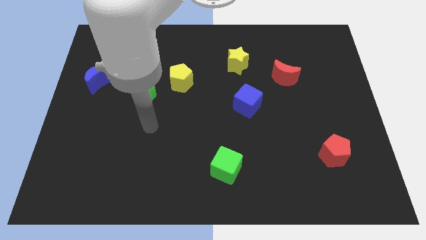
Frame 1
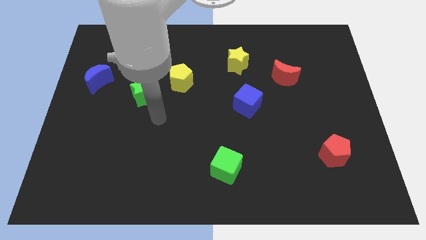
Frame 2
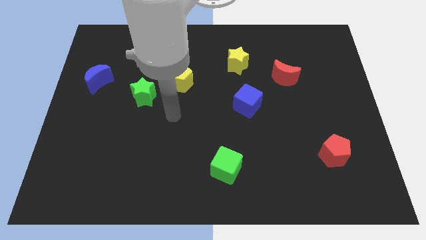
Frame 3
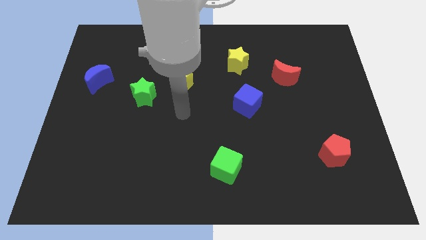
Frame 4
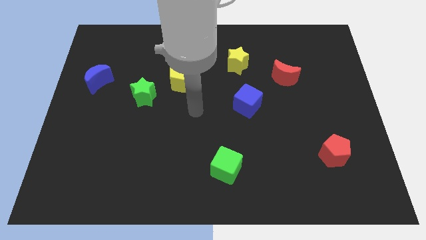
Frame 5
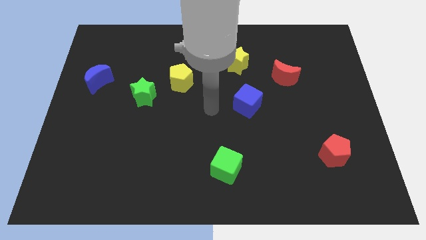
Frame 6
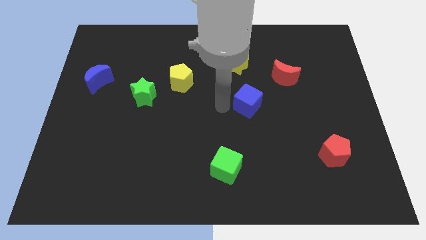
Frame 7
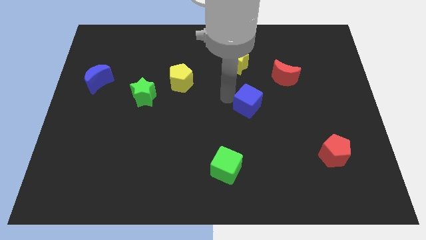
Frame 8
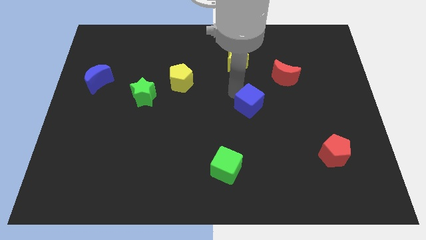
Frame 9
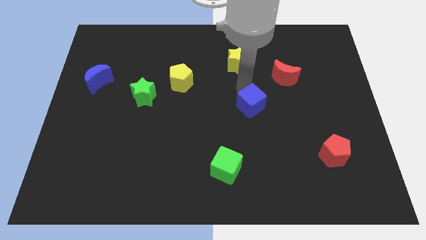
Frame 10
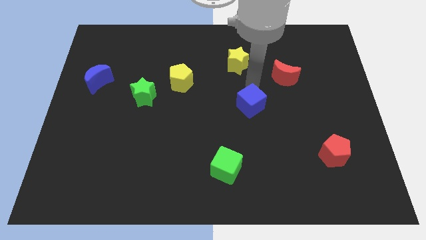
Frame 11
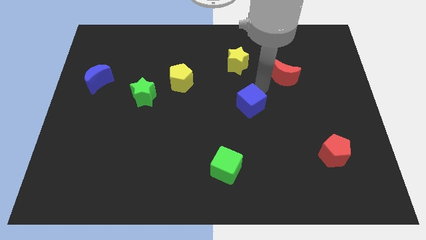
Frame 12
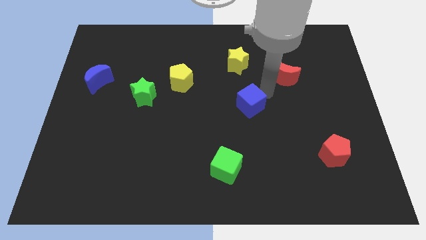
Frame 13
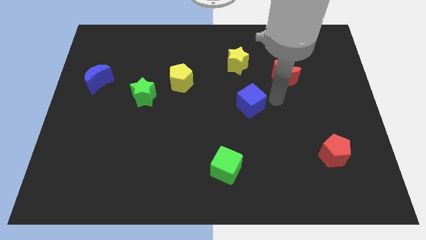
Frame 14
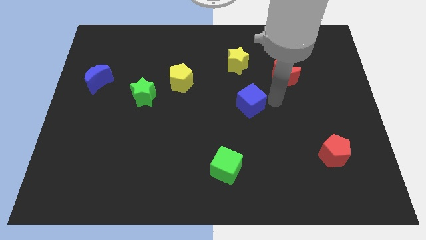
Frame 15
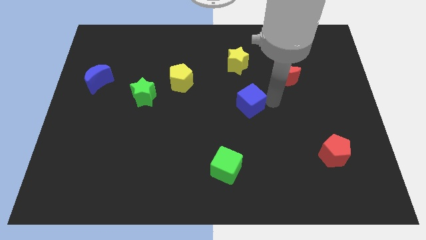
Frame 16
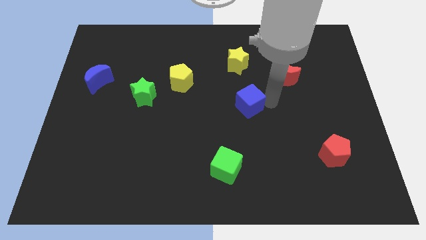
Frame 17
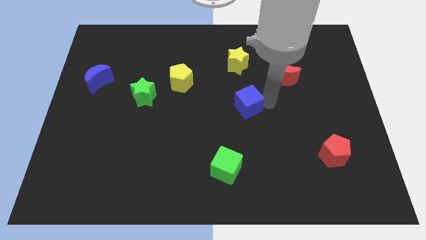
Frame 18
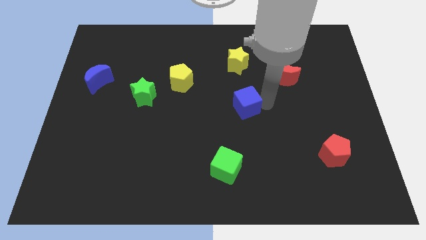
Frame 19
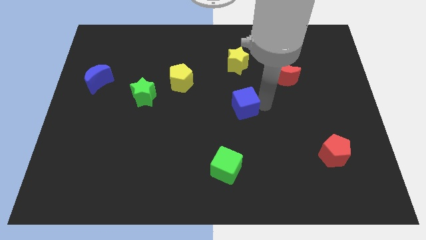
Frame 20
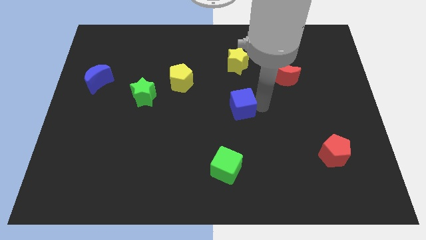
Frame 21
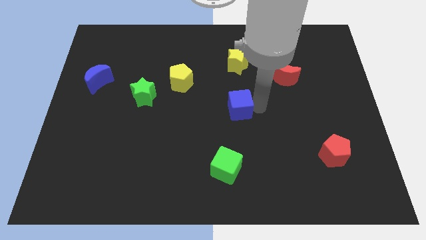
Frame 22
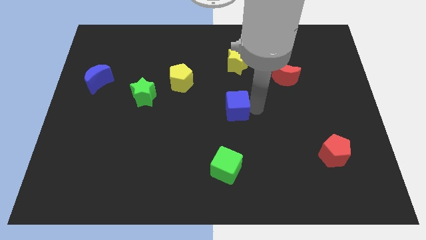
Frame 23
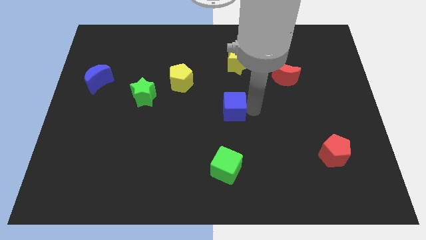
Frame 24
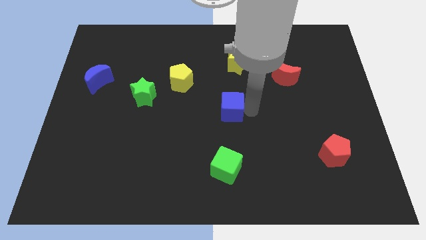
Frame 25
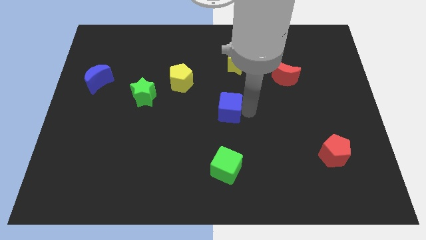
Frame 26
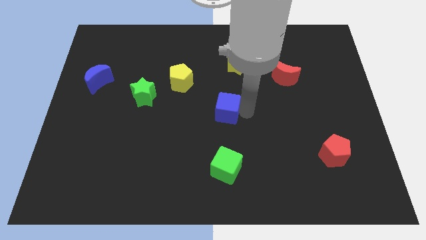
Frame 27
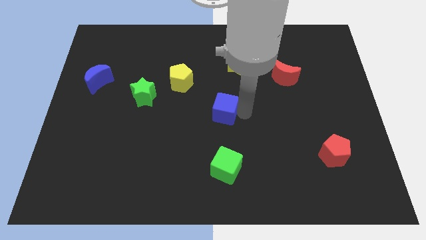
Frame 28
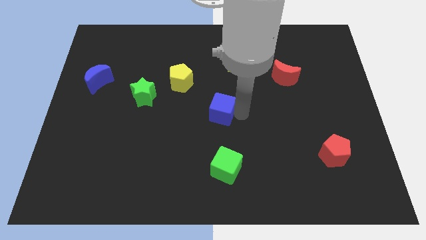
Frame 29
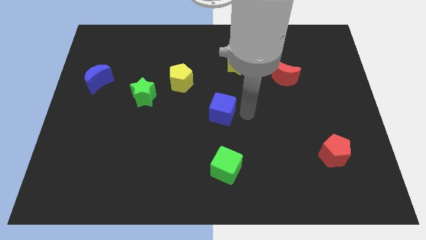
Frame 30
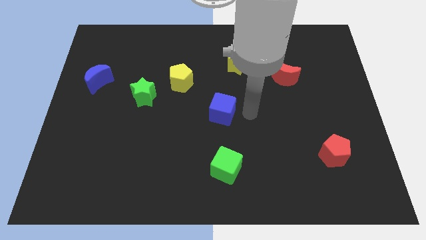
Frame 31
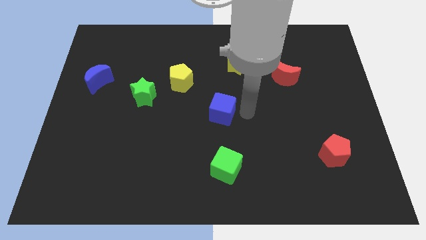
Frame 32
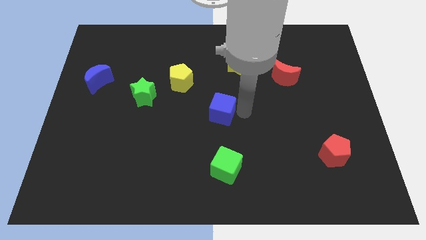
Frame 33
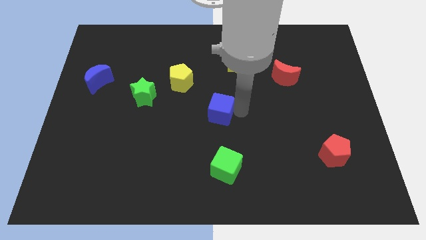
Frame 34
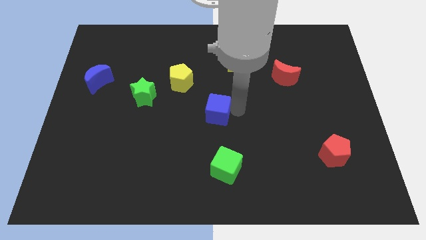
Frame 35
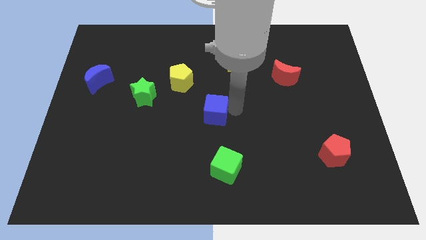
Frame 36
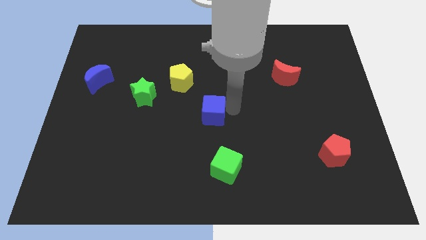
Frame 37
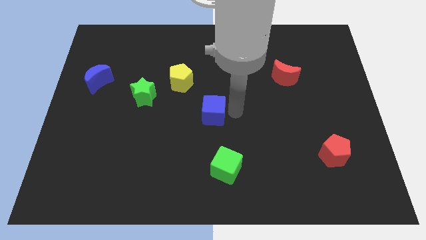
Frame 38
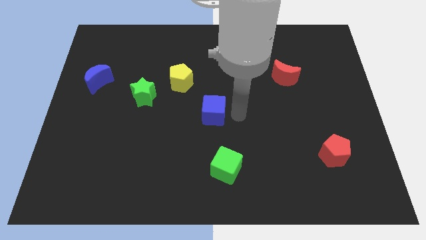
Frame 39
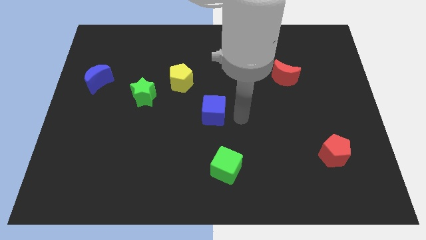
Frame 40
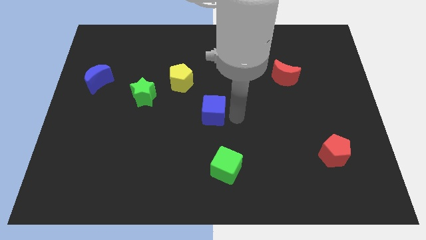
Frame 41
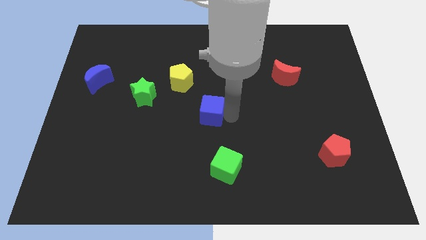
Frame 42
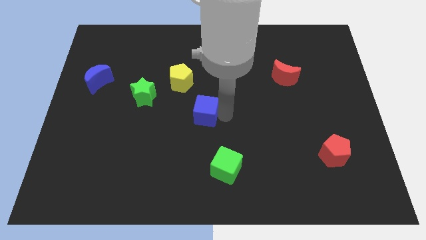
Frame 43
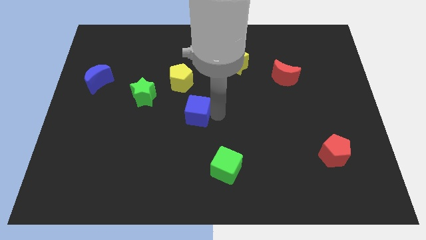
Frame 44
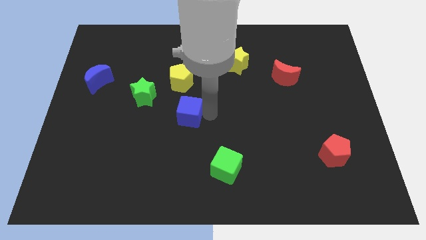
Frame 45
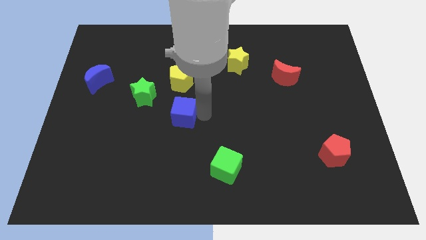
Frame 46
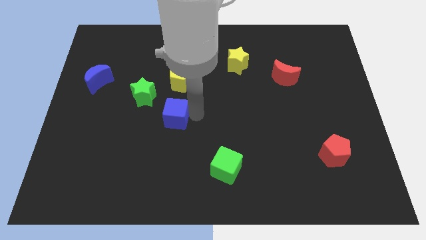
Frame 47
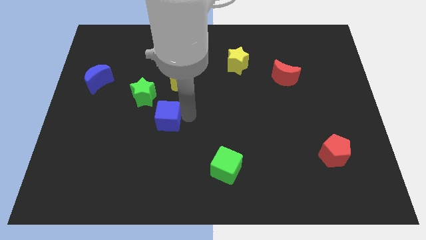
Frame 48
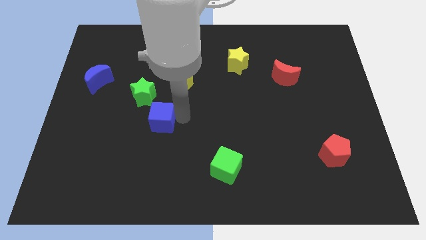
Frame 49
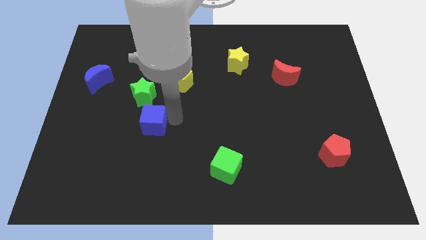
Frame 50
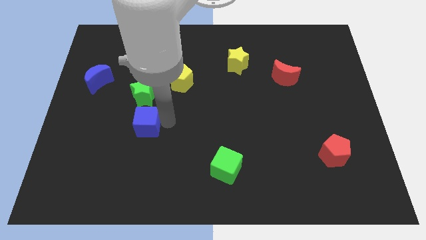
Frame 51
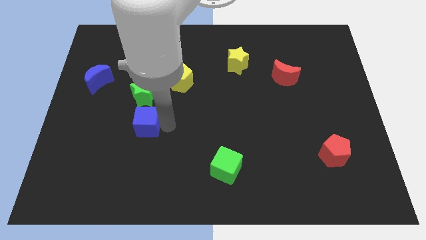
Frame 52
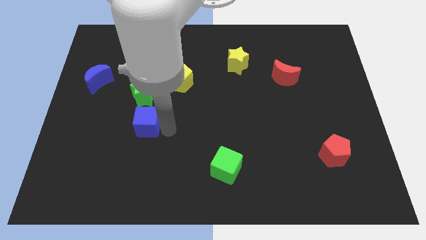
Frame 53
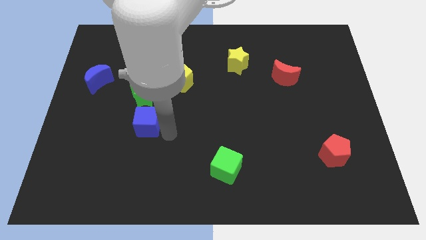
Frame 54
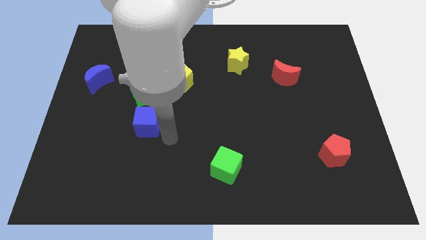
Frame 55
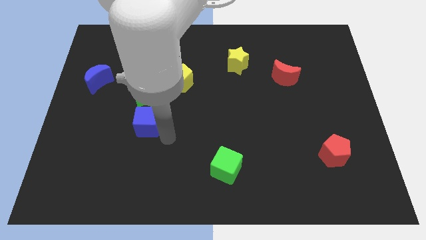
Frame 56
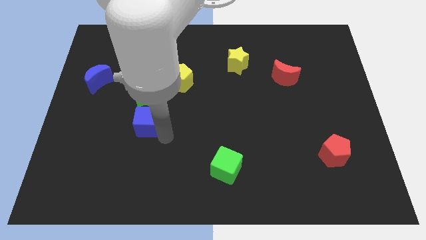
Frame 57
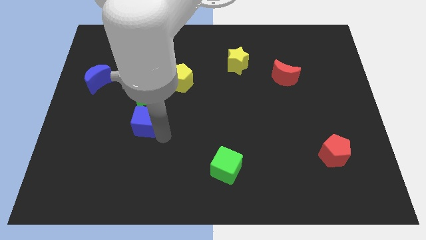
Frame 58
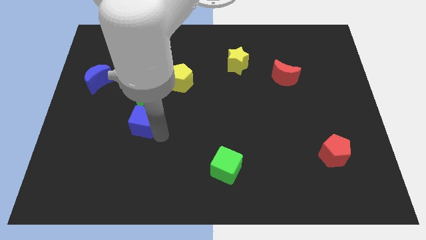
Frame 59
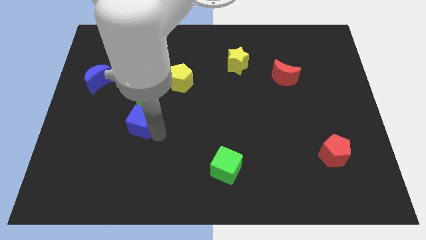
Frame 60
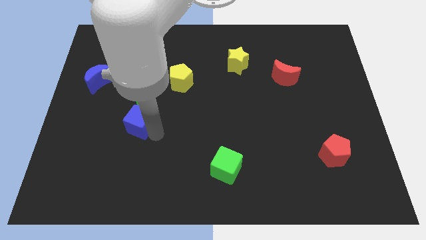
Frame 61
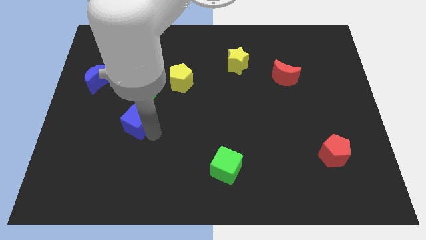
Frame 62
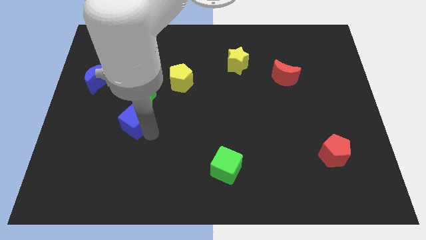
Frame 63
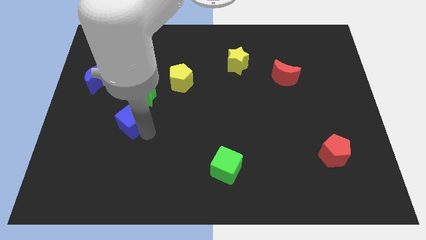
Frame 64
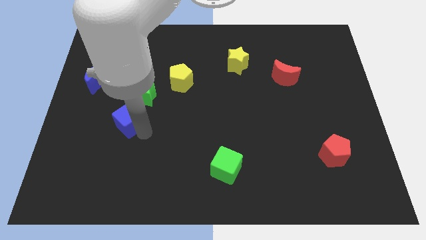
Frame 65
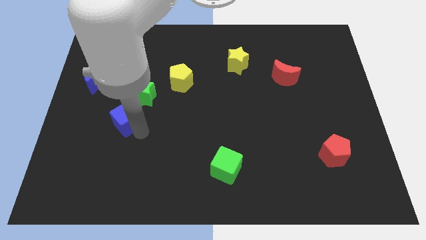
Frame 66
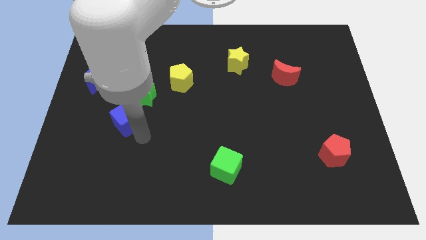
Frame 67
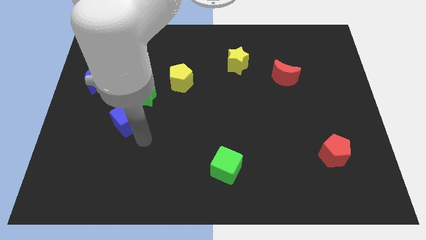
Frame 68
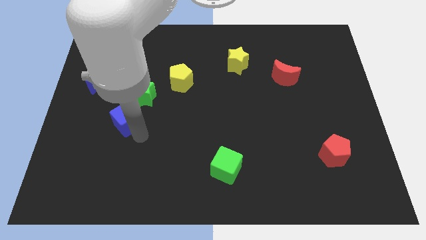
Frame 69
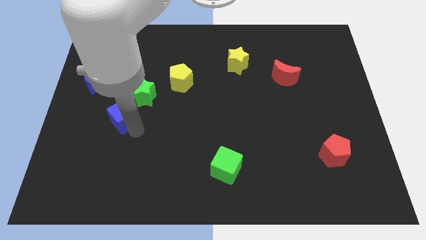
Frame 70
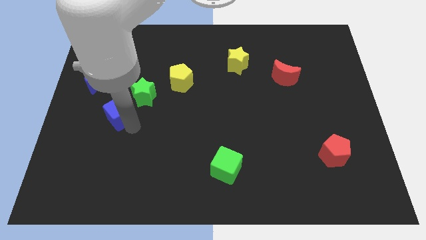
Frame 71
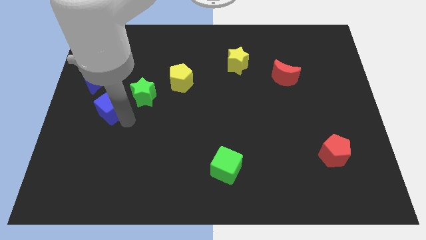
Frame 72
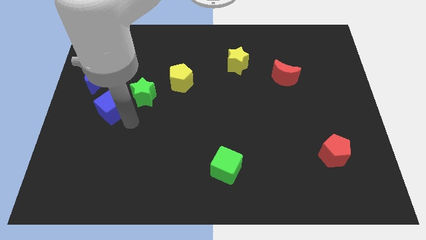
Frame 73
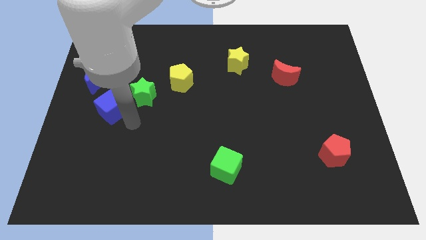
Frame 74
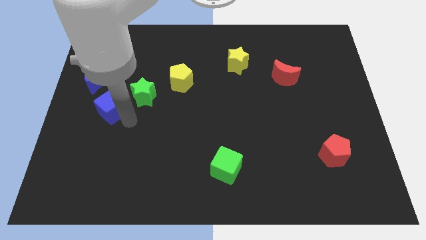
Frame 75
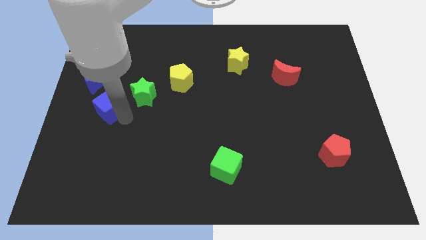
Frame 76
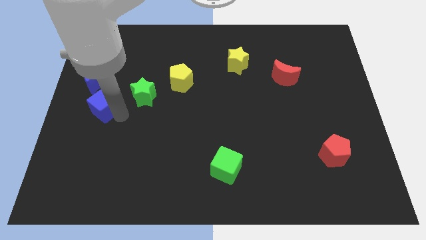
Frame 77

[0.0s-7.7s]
move the blue cube to the center left
